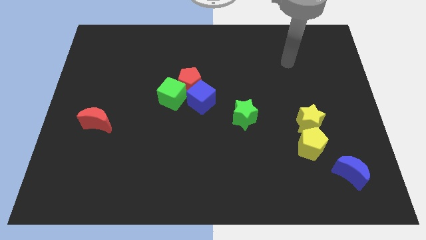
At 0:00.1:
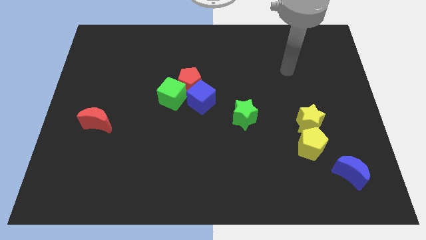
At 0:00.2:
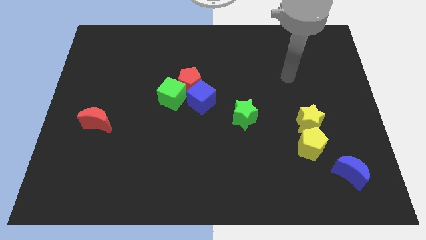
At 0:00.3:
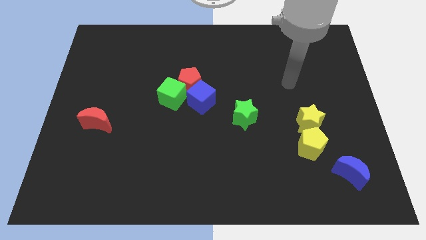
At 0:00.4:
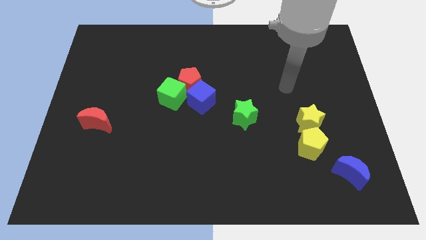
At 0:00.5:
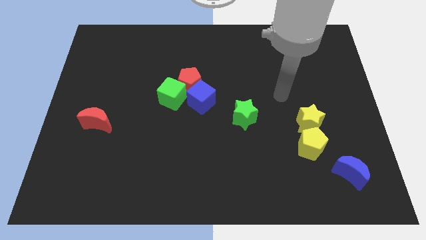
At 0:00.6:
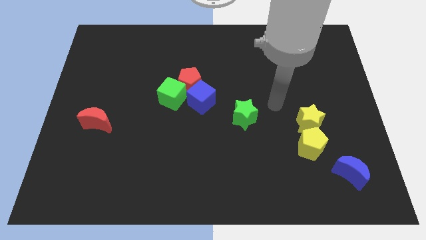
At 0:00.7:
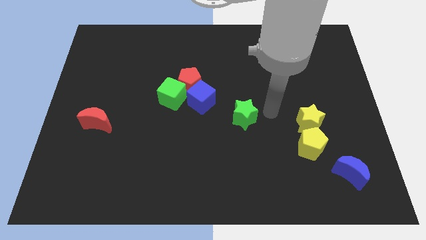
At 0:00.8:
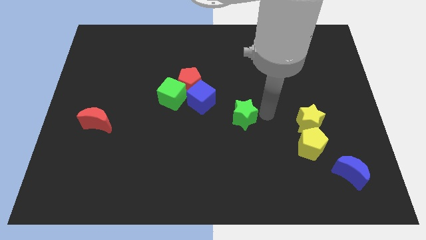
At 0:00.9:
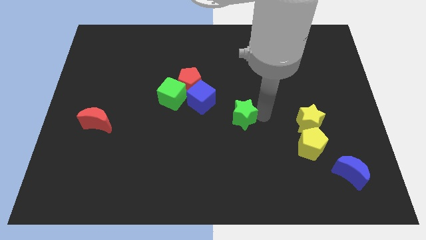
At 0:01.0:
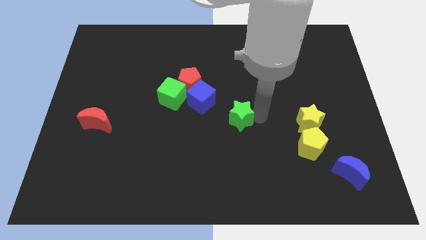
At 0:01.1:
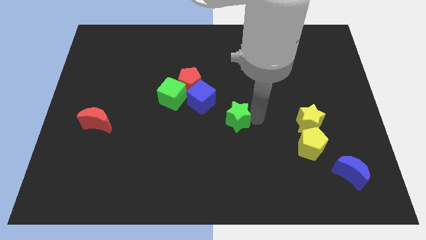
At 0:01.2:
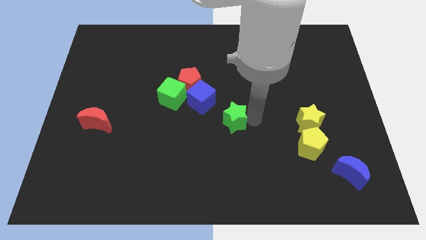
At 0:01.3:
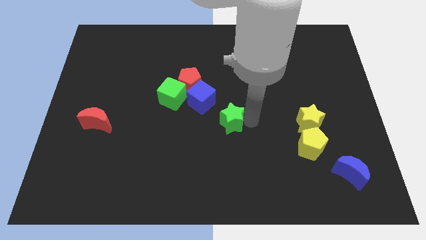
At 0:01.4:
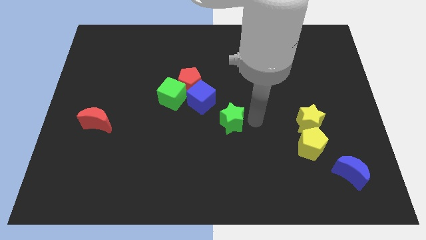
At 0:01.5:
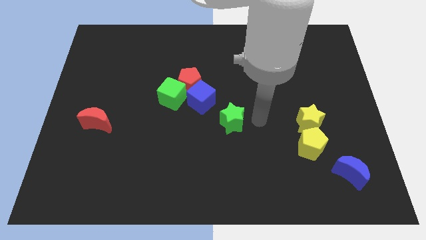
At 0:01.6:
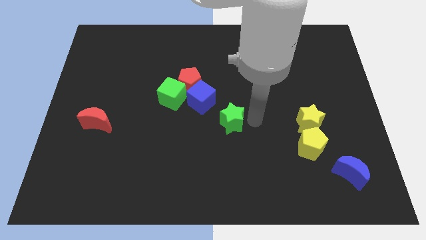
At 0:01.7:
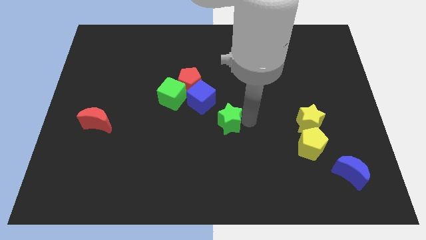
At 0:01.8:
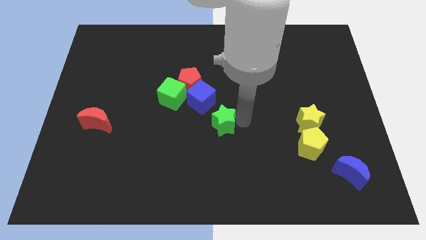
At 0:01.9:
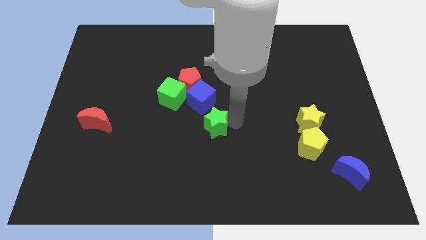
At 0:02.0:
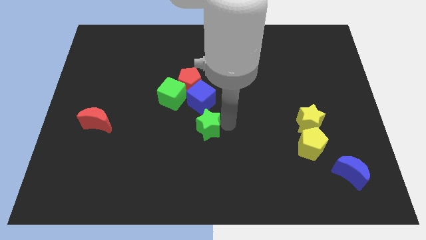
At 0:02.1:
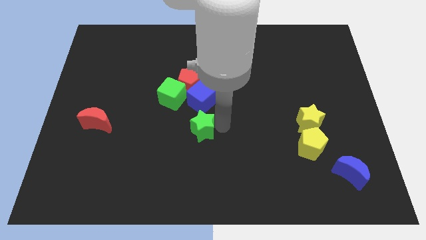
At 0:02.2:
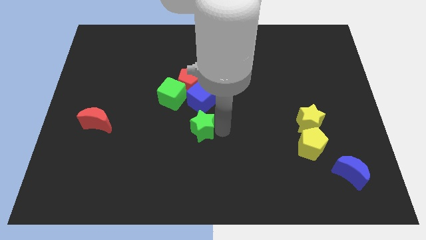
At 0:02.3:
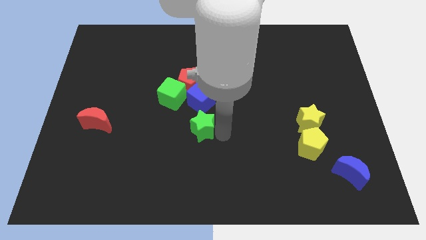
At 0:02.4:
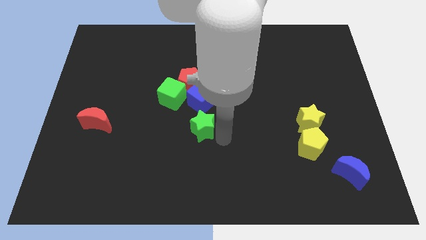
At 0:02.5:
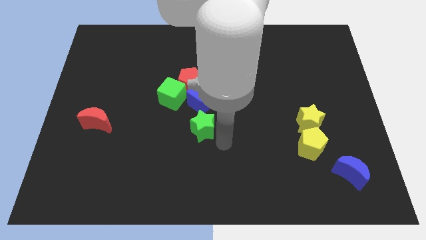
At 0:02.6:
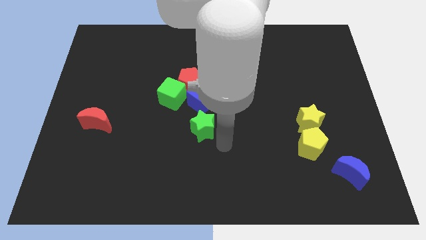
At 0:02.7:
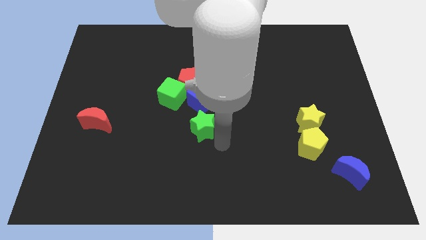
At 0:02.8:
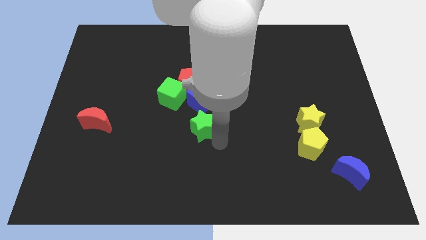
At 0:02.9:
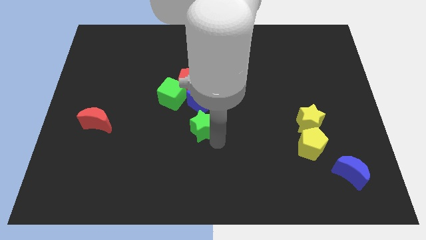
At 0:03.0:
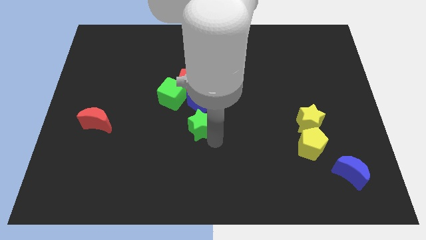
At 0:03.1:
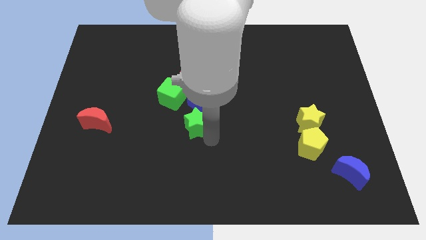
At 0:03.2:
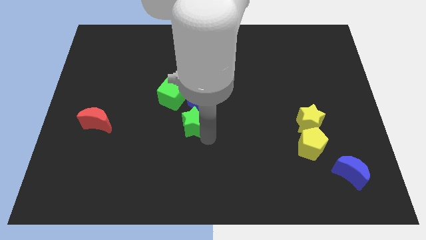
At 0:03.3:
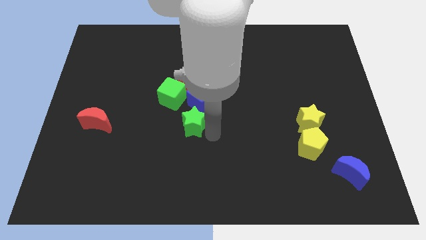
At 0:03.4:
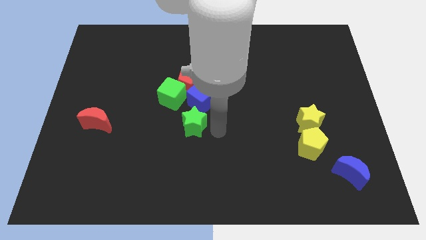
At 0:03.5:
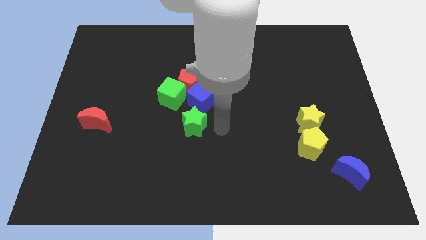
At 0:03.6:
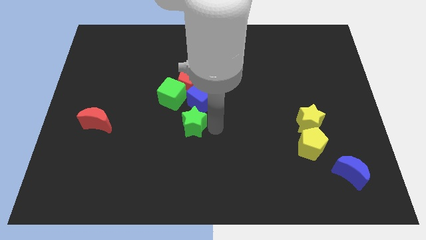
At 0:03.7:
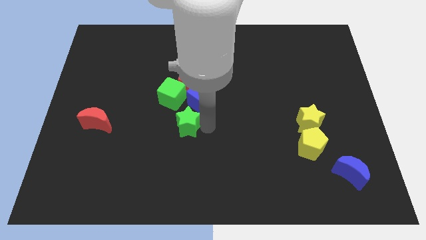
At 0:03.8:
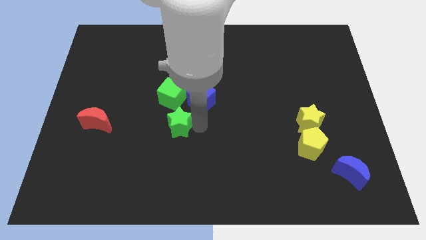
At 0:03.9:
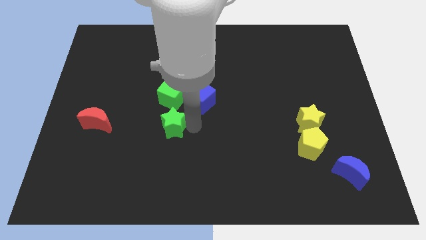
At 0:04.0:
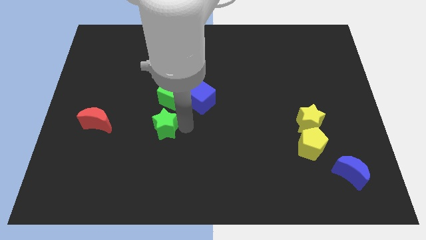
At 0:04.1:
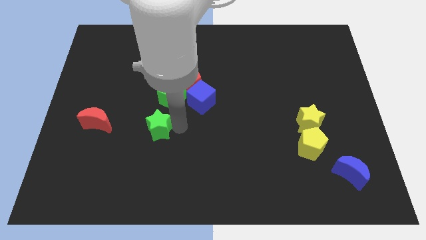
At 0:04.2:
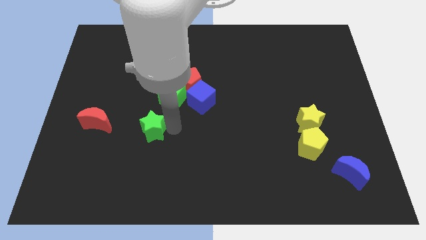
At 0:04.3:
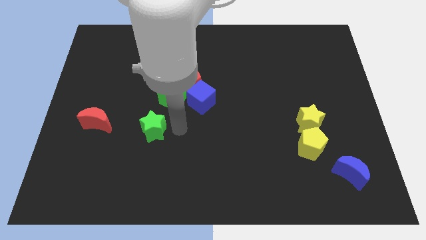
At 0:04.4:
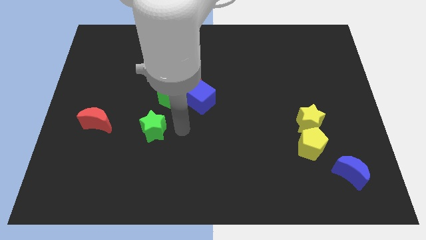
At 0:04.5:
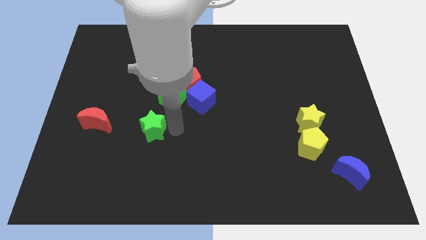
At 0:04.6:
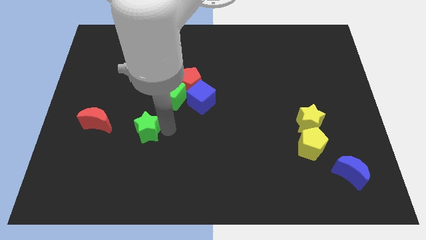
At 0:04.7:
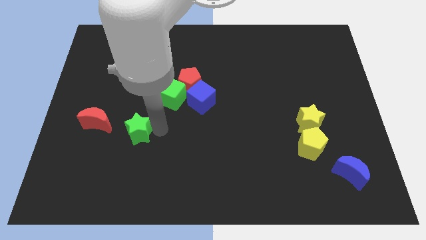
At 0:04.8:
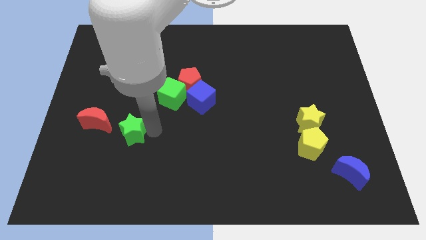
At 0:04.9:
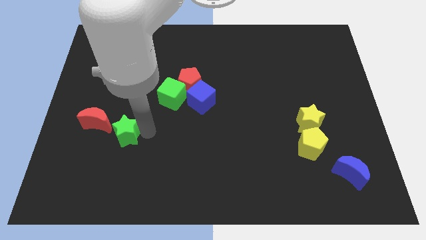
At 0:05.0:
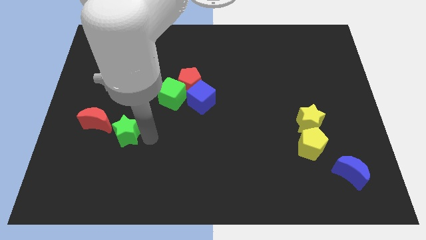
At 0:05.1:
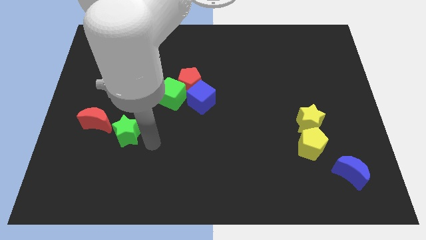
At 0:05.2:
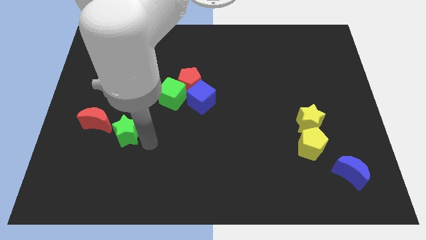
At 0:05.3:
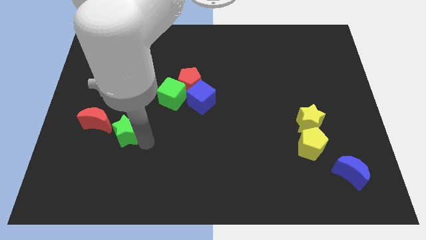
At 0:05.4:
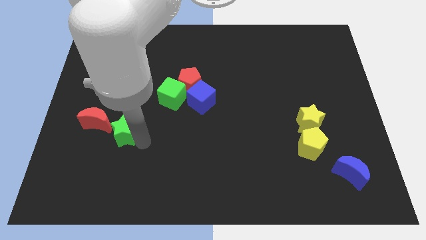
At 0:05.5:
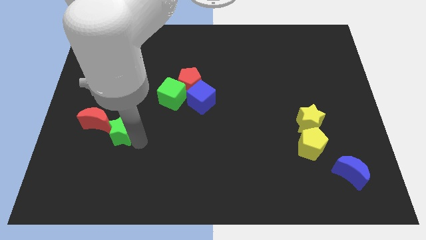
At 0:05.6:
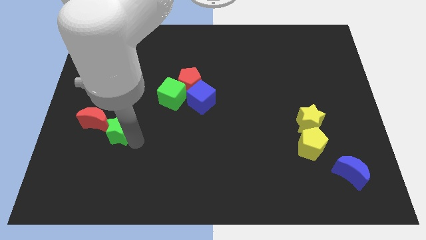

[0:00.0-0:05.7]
slide the green star towards the red moon

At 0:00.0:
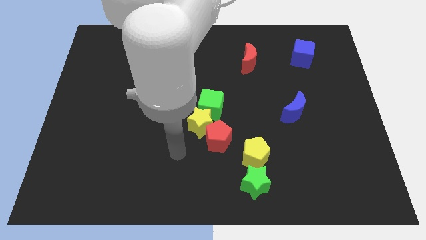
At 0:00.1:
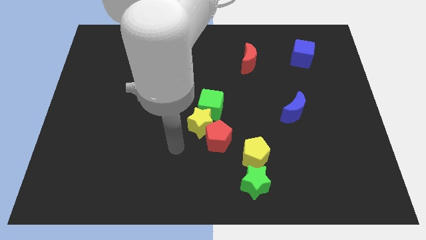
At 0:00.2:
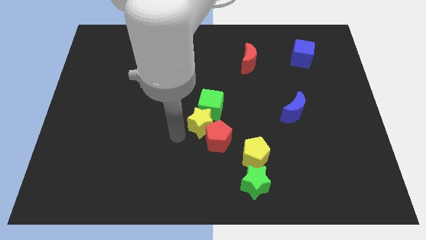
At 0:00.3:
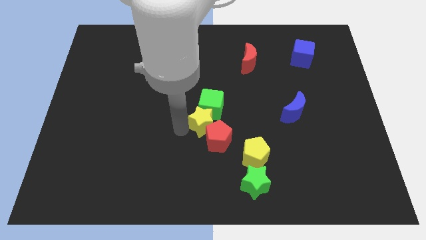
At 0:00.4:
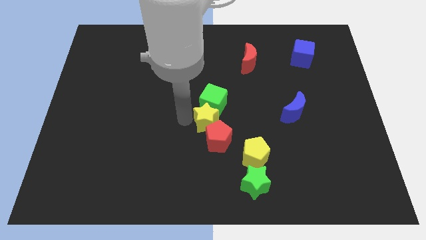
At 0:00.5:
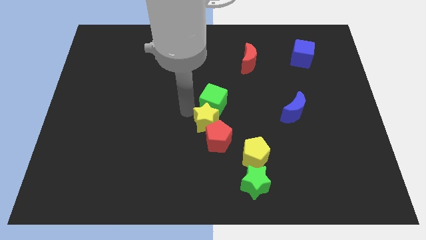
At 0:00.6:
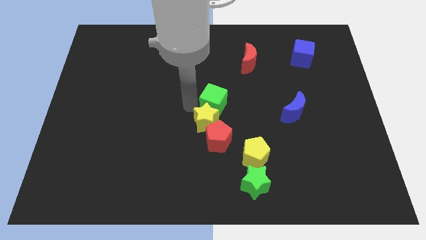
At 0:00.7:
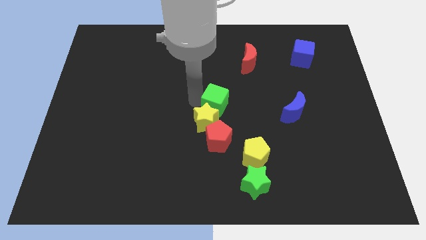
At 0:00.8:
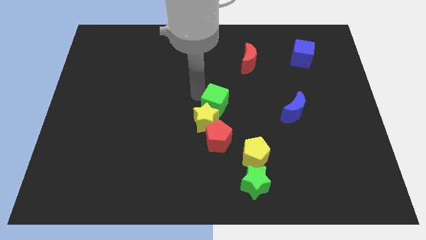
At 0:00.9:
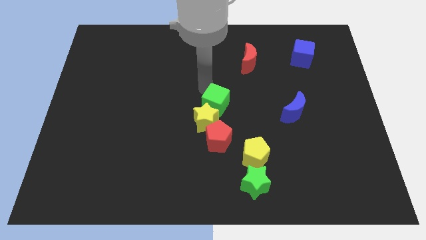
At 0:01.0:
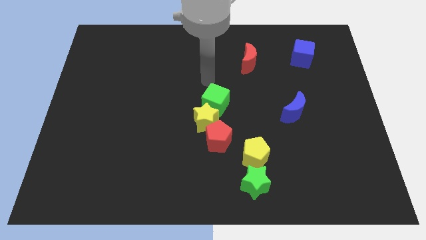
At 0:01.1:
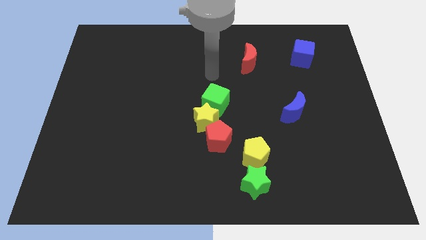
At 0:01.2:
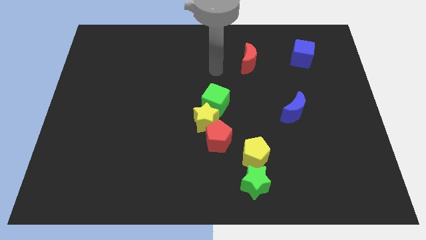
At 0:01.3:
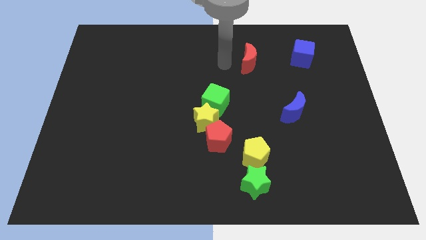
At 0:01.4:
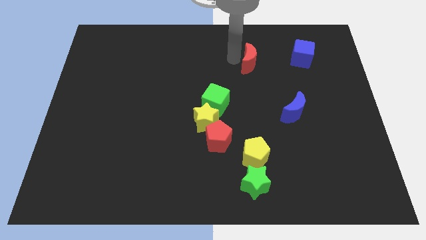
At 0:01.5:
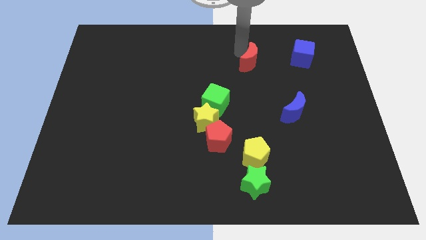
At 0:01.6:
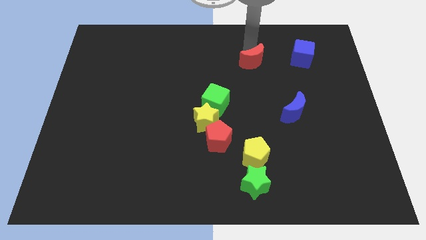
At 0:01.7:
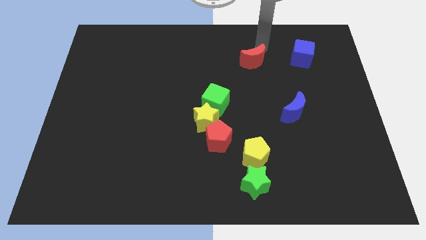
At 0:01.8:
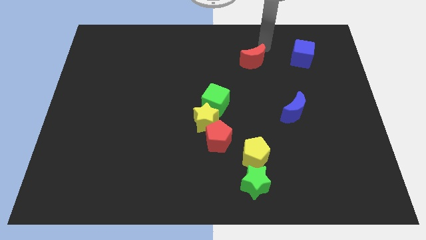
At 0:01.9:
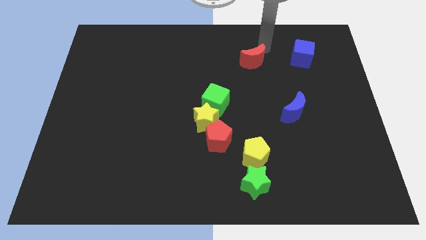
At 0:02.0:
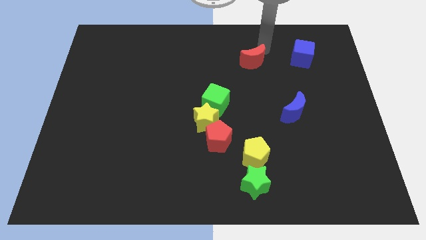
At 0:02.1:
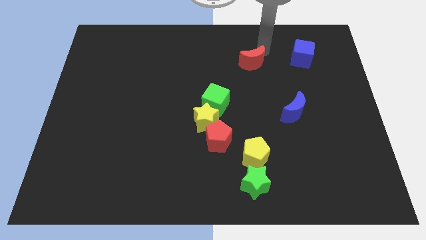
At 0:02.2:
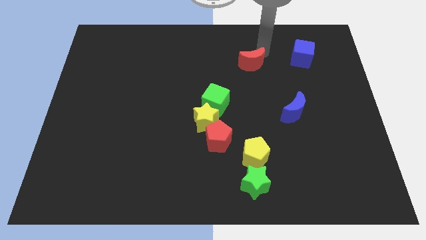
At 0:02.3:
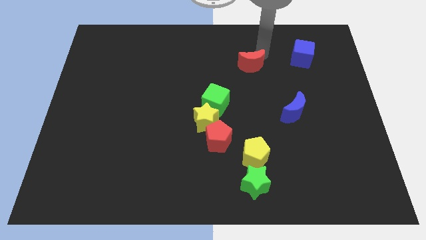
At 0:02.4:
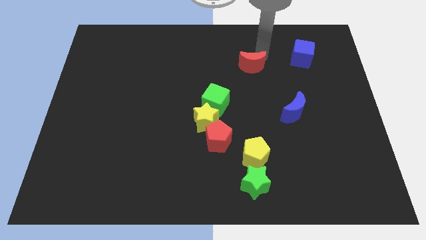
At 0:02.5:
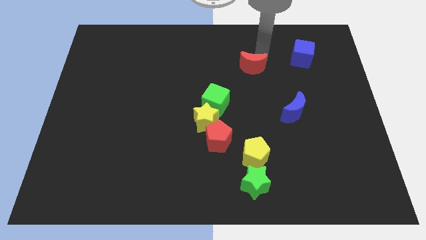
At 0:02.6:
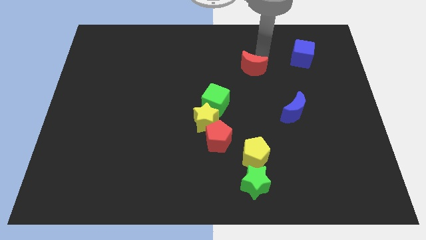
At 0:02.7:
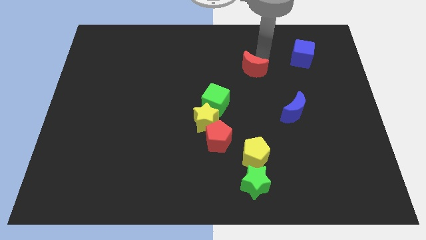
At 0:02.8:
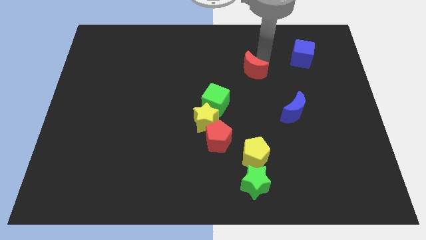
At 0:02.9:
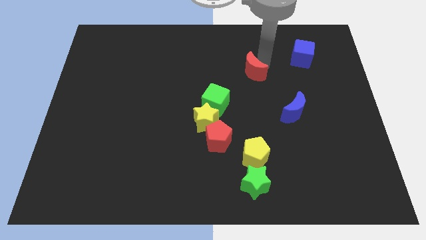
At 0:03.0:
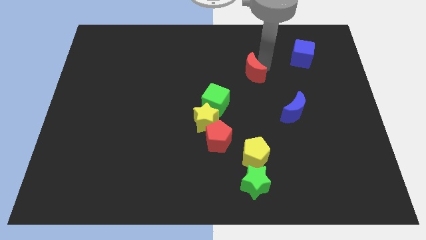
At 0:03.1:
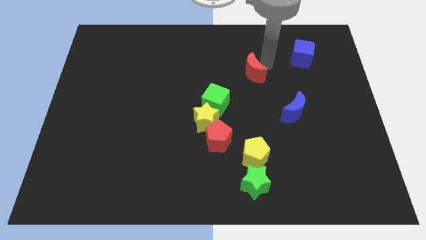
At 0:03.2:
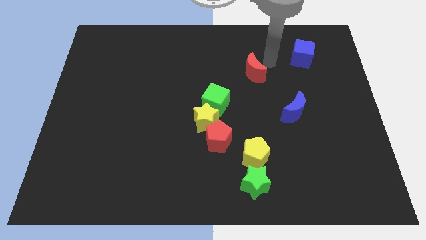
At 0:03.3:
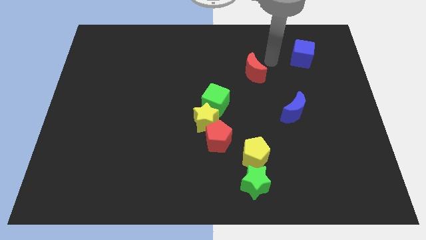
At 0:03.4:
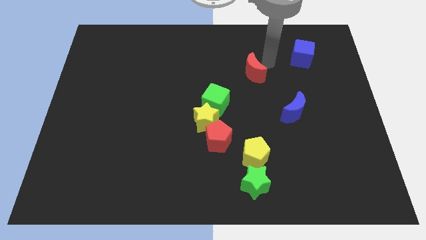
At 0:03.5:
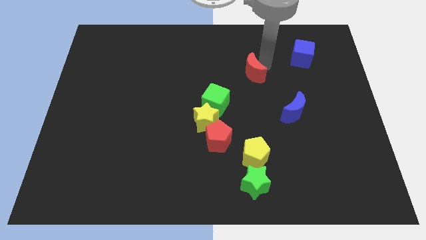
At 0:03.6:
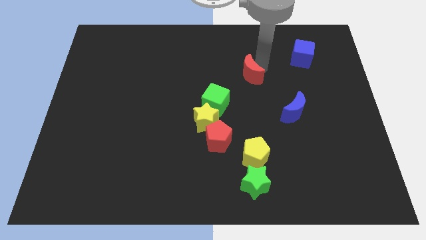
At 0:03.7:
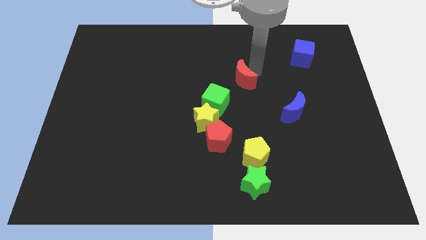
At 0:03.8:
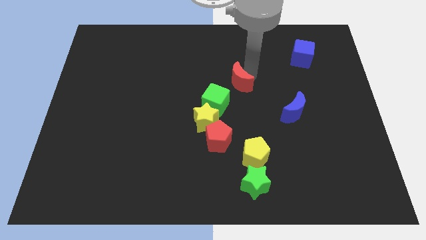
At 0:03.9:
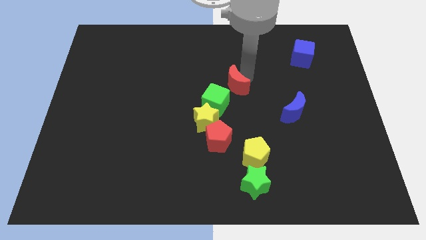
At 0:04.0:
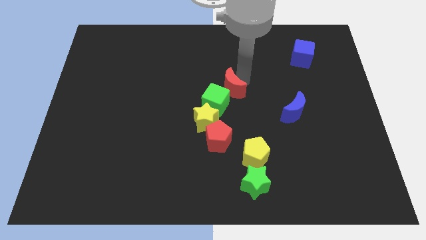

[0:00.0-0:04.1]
slide the red moon close to the green cube
